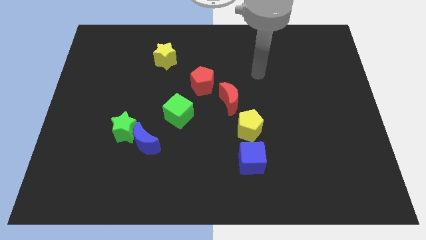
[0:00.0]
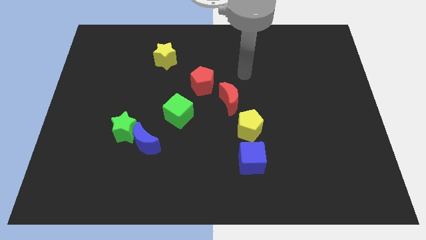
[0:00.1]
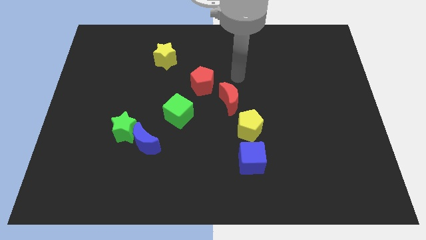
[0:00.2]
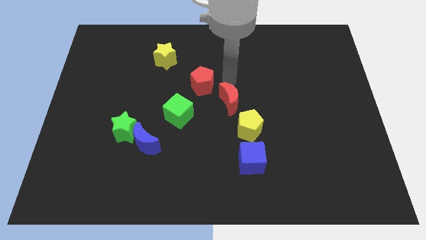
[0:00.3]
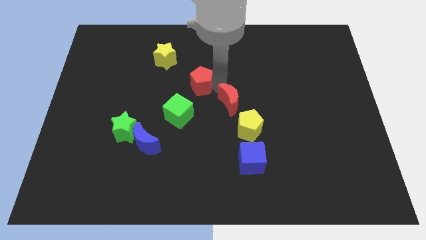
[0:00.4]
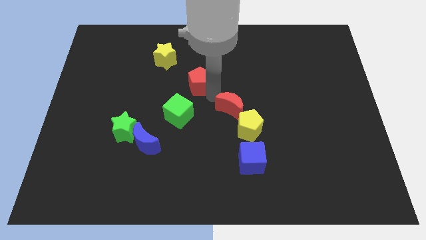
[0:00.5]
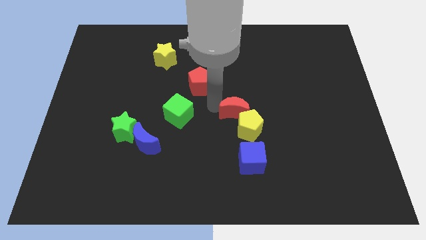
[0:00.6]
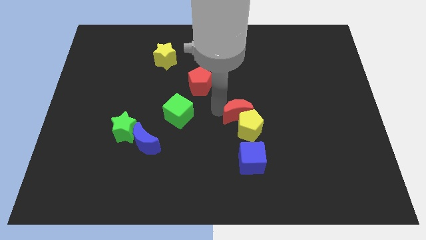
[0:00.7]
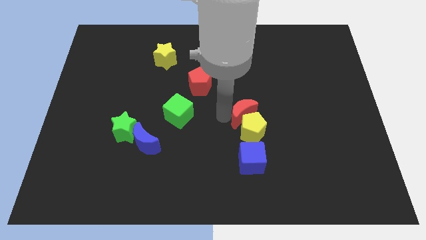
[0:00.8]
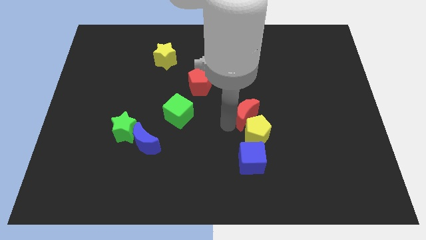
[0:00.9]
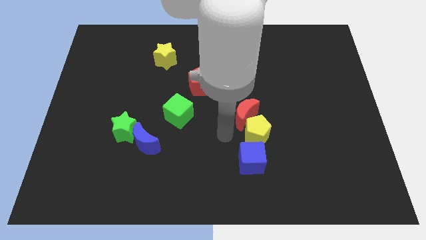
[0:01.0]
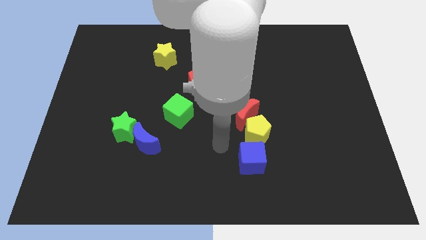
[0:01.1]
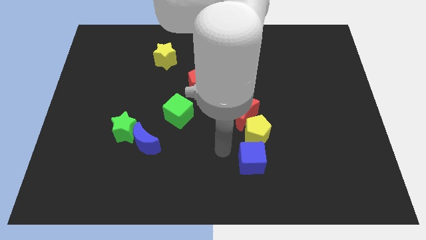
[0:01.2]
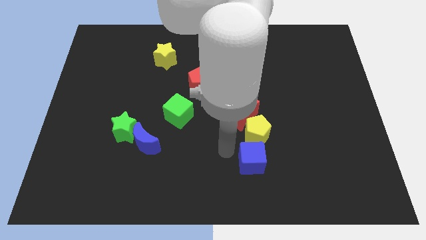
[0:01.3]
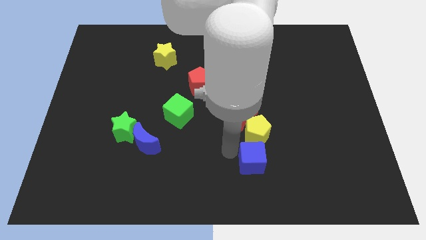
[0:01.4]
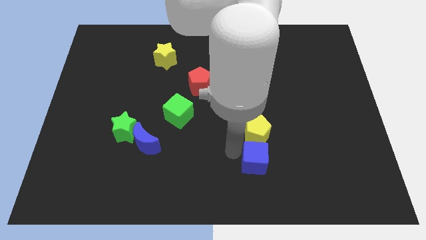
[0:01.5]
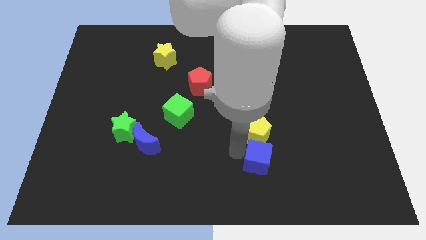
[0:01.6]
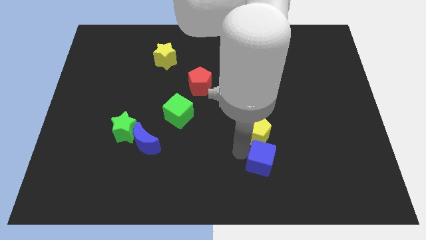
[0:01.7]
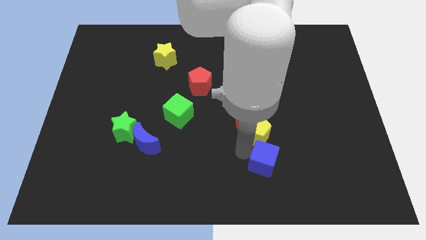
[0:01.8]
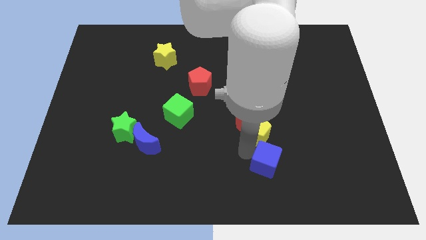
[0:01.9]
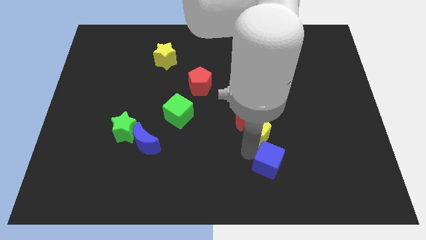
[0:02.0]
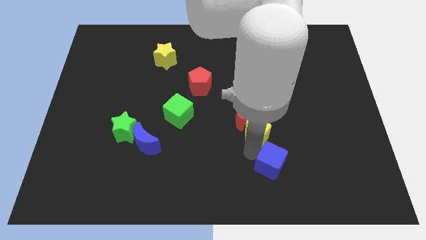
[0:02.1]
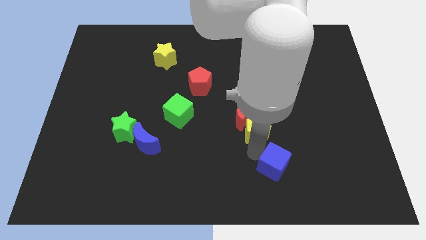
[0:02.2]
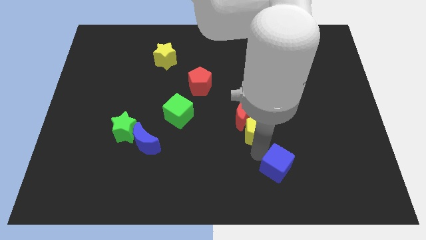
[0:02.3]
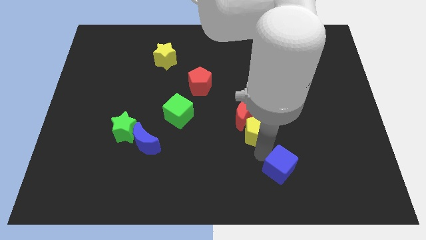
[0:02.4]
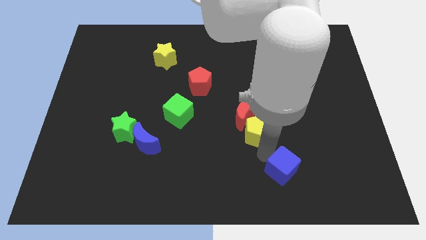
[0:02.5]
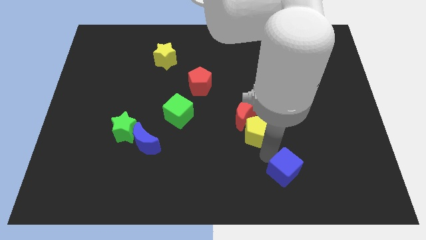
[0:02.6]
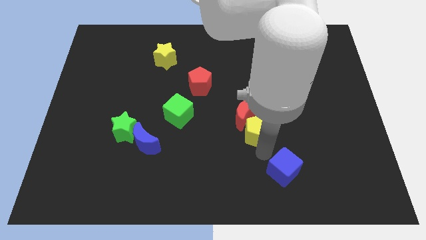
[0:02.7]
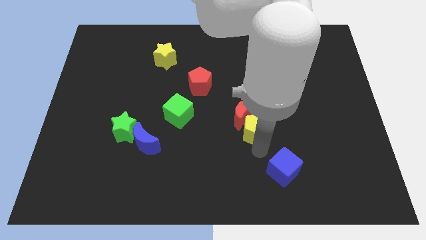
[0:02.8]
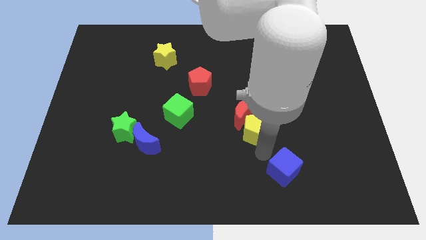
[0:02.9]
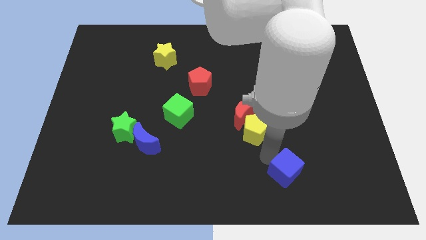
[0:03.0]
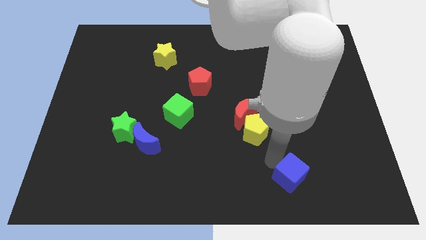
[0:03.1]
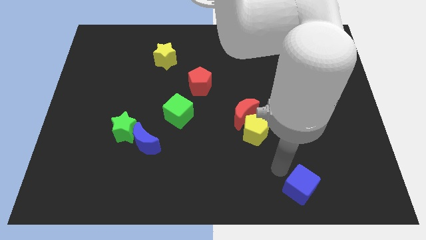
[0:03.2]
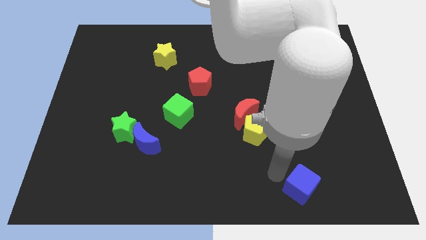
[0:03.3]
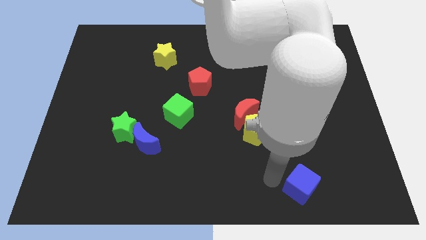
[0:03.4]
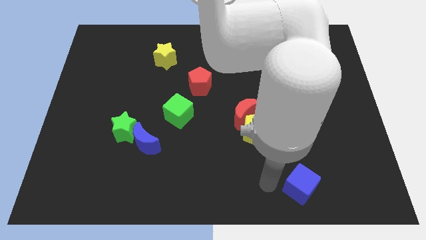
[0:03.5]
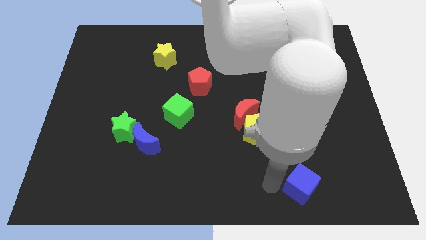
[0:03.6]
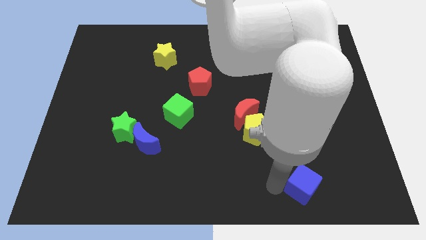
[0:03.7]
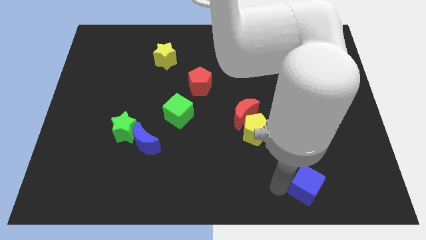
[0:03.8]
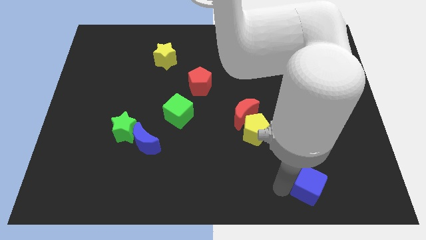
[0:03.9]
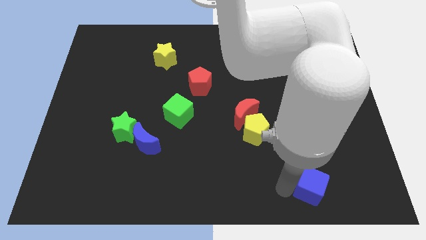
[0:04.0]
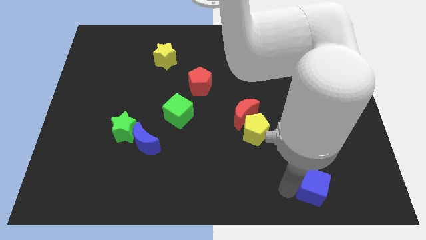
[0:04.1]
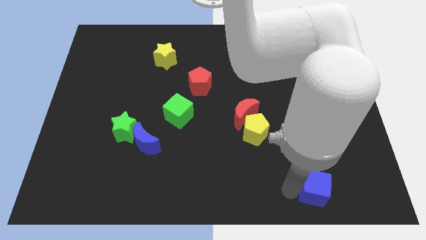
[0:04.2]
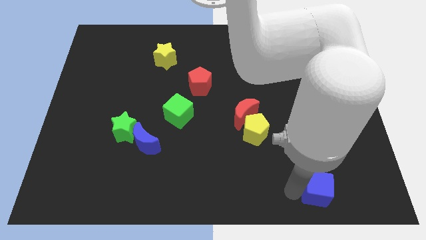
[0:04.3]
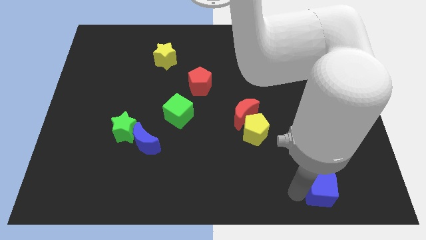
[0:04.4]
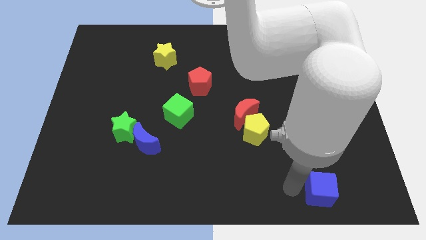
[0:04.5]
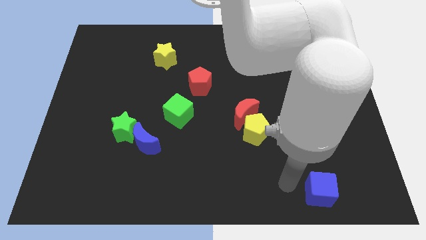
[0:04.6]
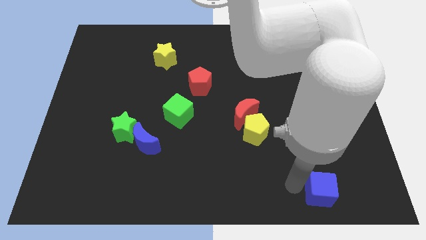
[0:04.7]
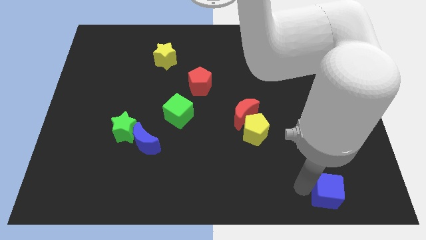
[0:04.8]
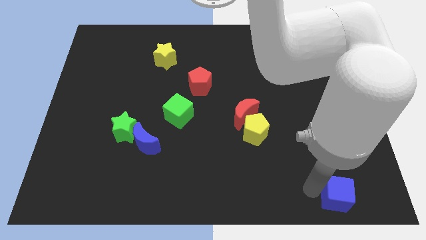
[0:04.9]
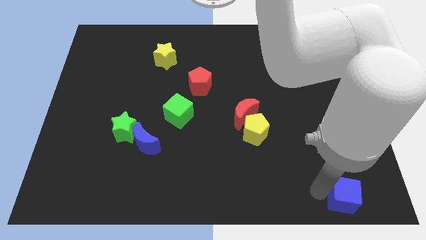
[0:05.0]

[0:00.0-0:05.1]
push the blue cube to the bottom right of the board

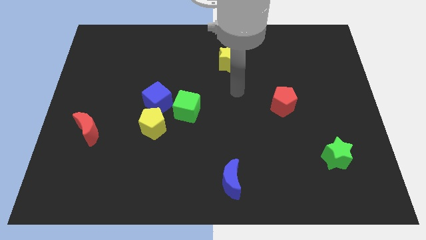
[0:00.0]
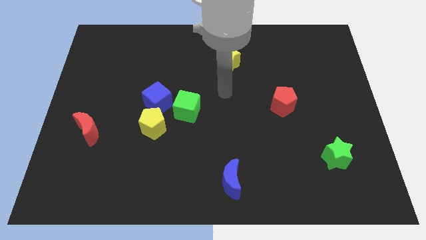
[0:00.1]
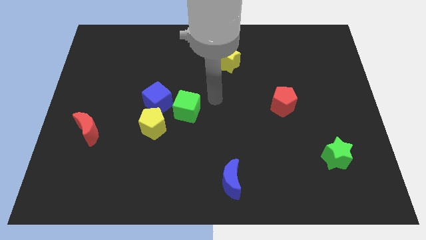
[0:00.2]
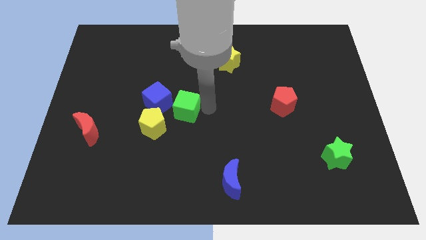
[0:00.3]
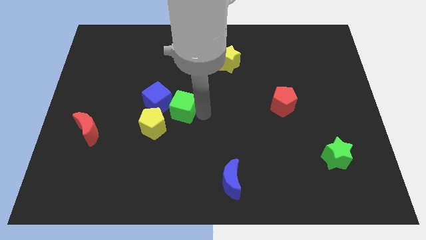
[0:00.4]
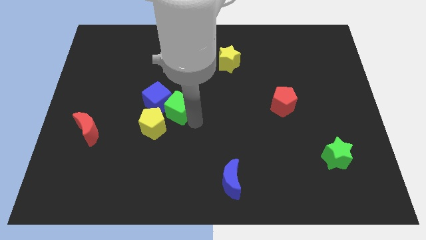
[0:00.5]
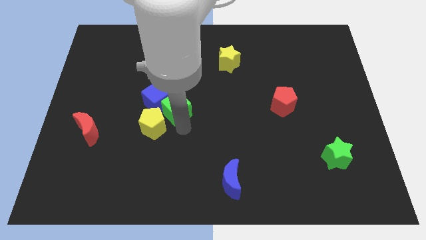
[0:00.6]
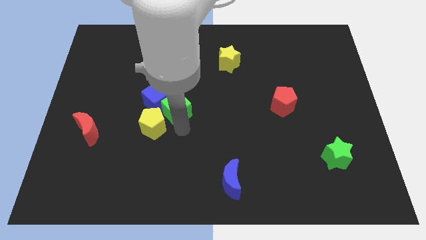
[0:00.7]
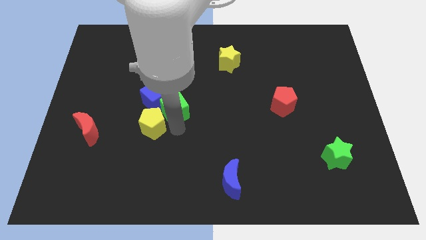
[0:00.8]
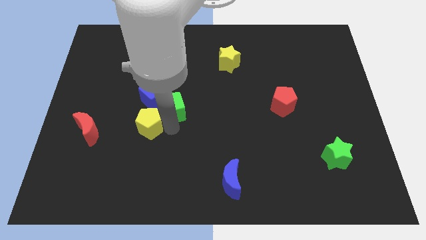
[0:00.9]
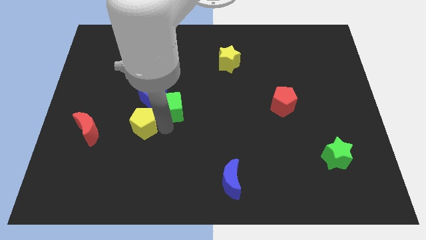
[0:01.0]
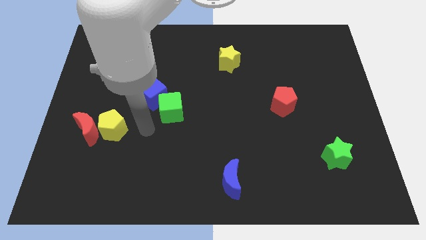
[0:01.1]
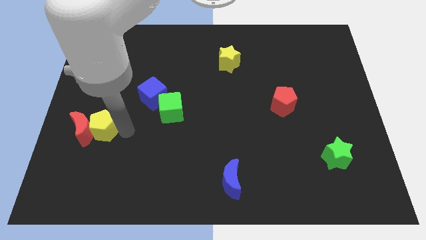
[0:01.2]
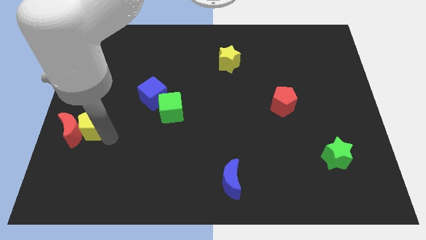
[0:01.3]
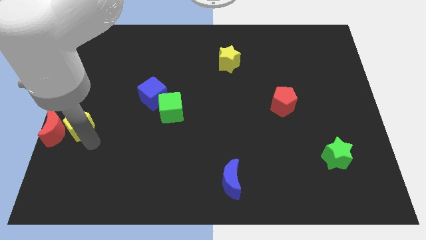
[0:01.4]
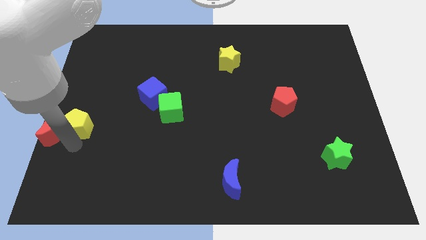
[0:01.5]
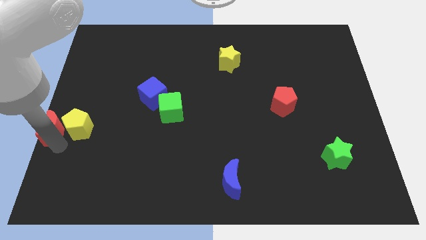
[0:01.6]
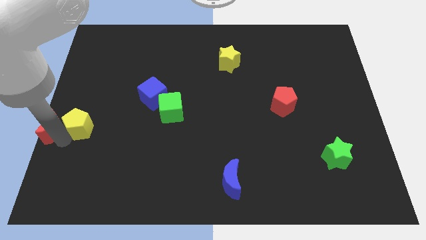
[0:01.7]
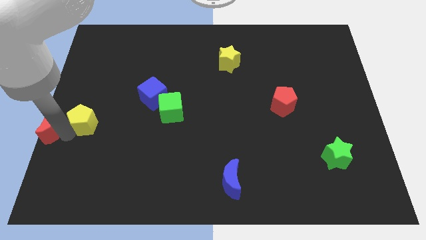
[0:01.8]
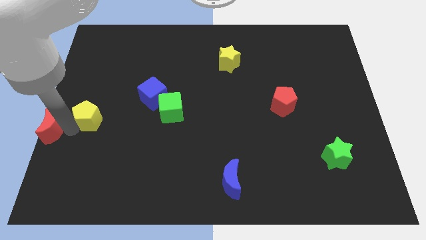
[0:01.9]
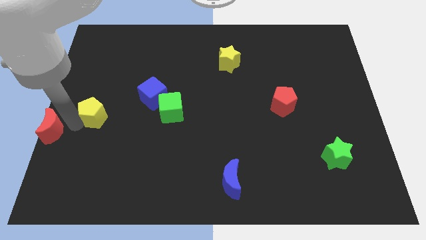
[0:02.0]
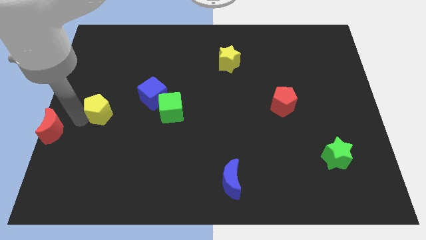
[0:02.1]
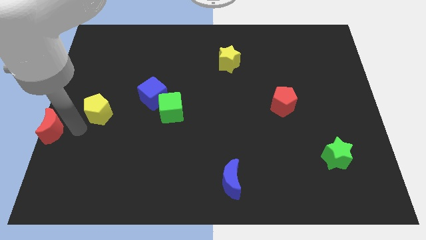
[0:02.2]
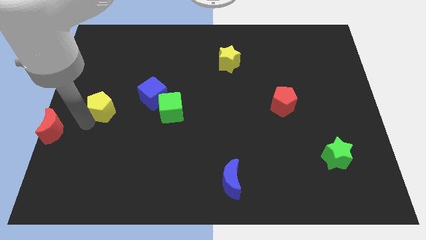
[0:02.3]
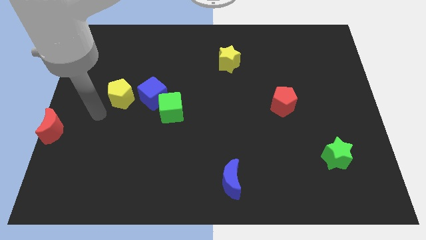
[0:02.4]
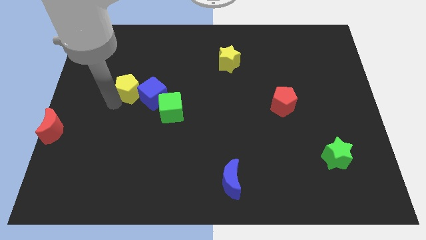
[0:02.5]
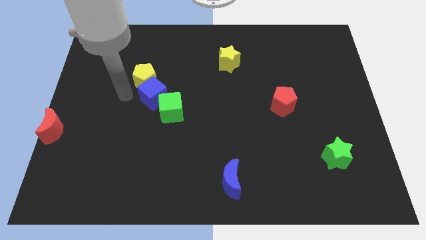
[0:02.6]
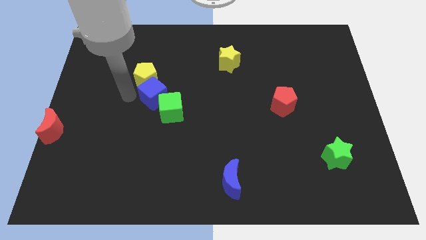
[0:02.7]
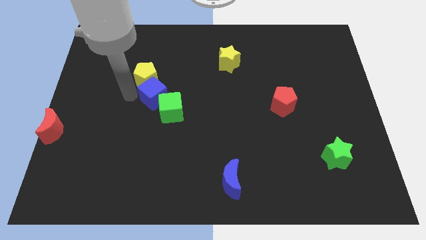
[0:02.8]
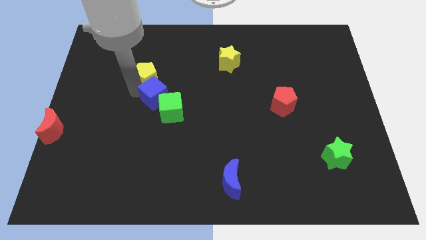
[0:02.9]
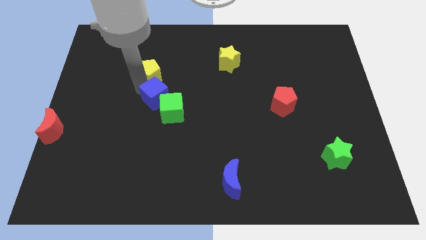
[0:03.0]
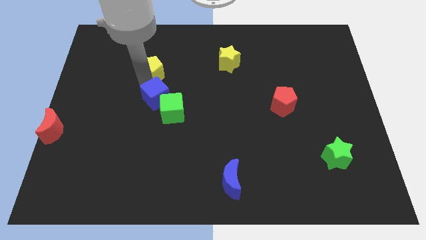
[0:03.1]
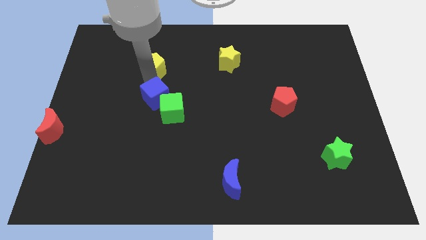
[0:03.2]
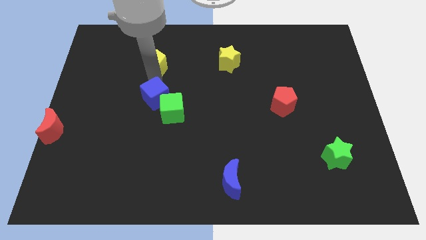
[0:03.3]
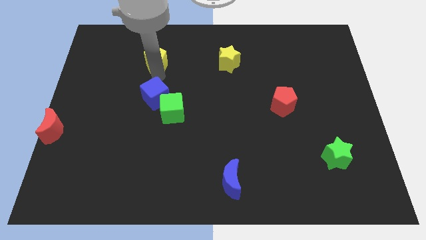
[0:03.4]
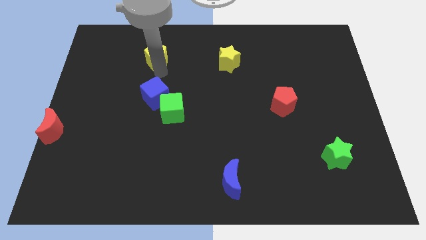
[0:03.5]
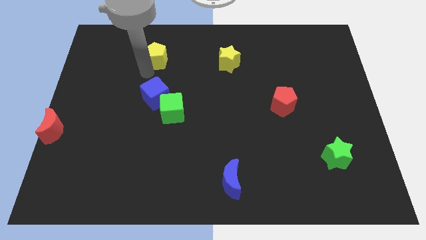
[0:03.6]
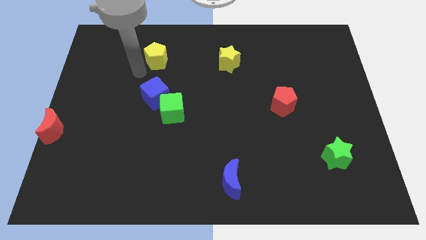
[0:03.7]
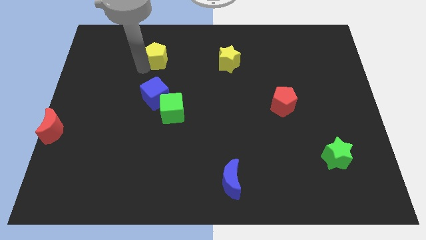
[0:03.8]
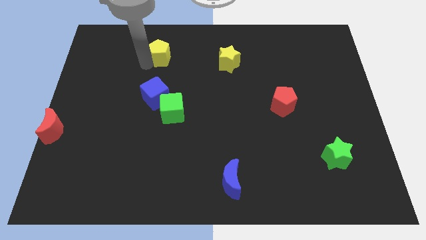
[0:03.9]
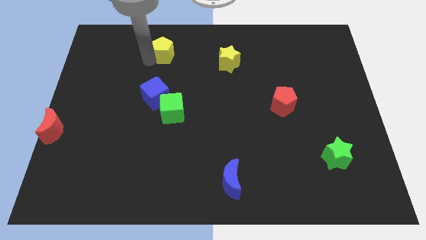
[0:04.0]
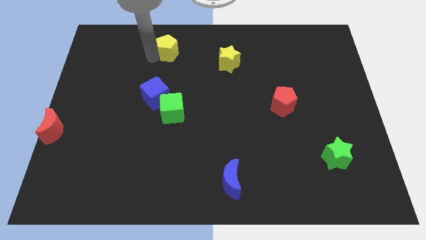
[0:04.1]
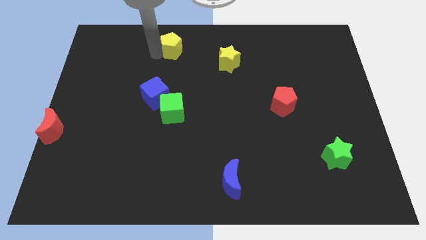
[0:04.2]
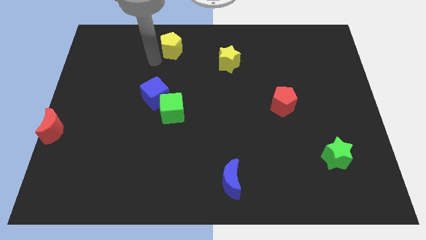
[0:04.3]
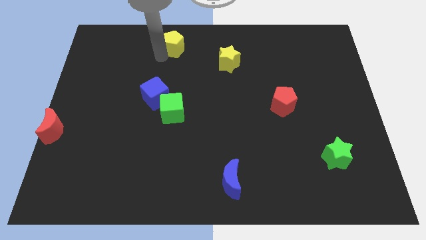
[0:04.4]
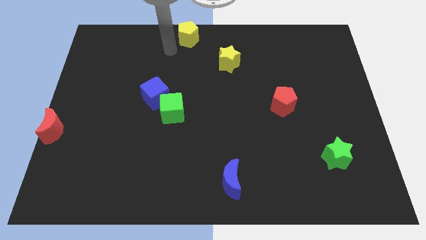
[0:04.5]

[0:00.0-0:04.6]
slide the yellow pentagon to the towards your base
